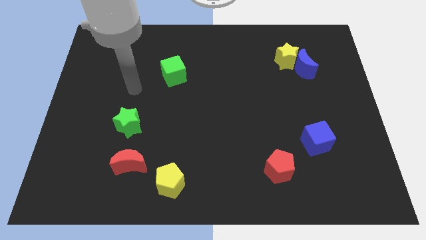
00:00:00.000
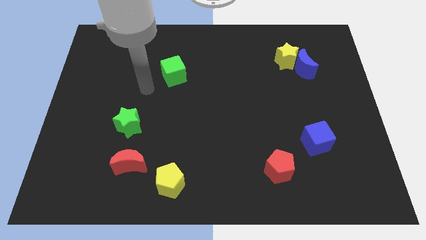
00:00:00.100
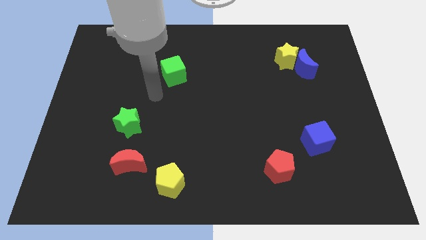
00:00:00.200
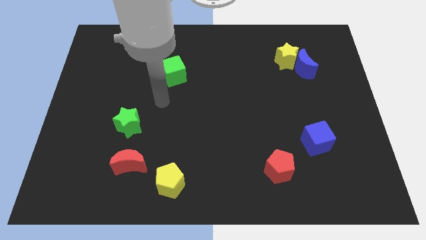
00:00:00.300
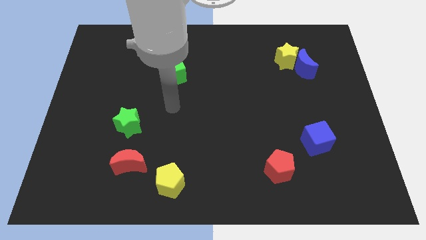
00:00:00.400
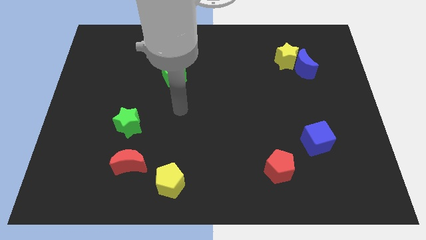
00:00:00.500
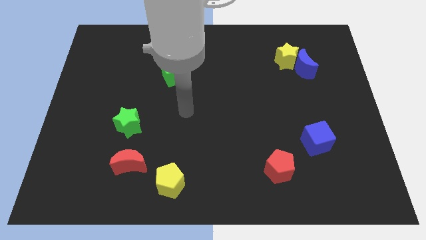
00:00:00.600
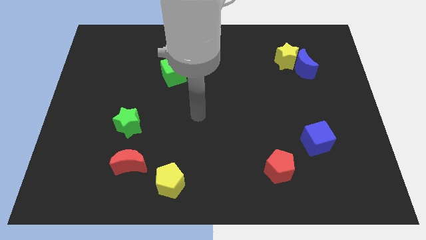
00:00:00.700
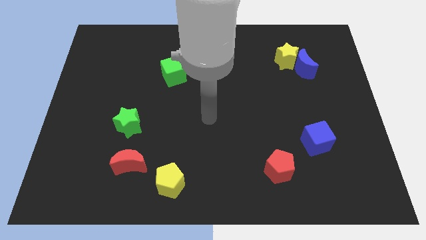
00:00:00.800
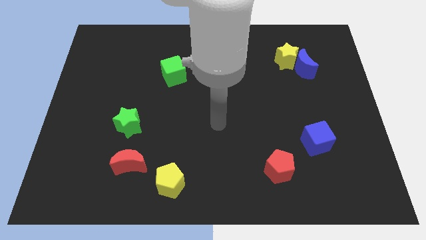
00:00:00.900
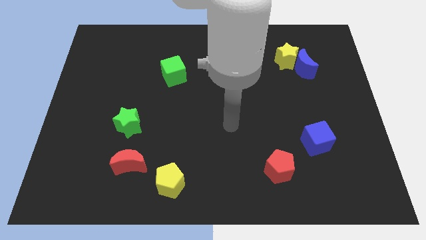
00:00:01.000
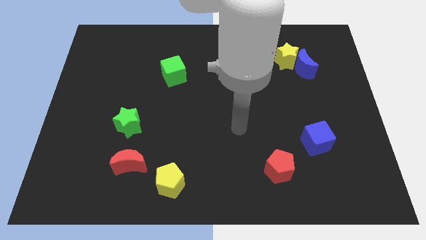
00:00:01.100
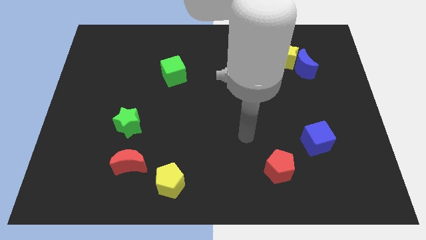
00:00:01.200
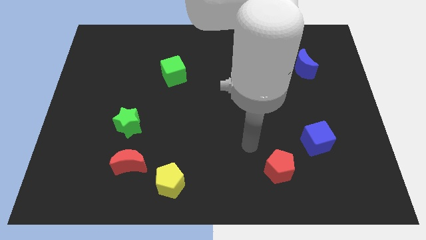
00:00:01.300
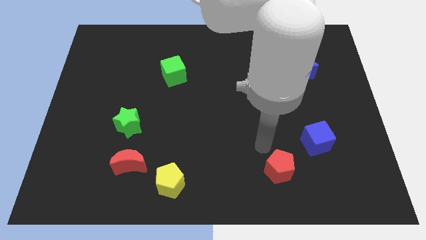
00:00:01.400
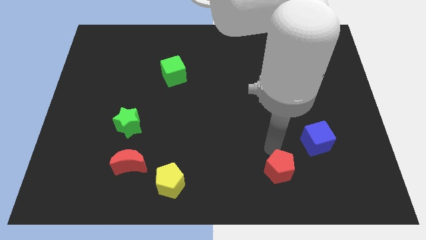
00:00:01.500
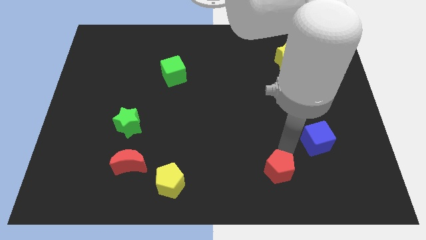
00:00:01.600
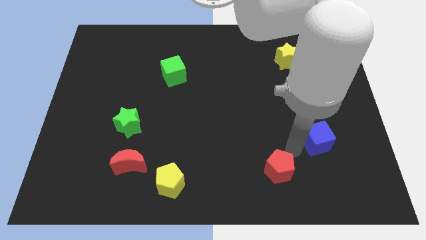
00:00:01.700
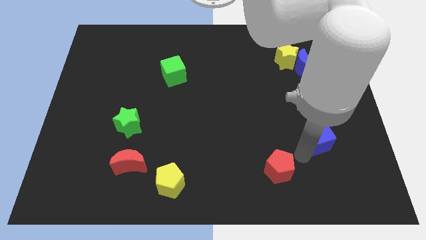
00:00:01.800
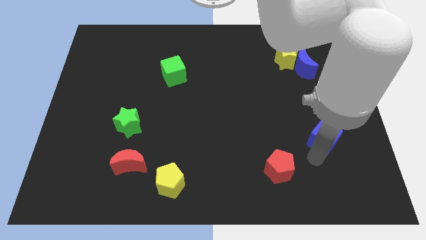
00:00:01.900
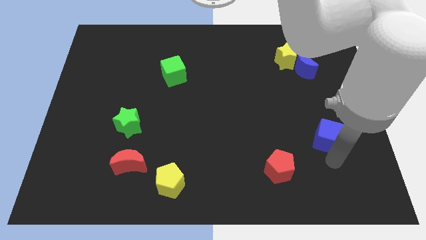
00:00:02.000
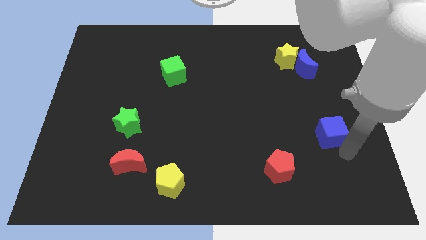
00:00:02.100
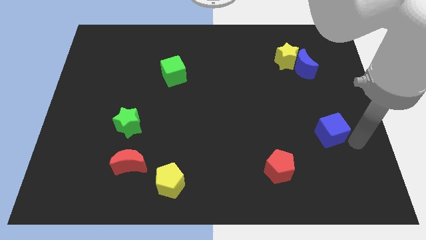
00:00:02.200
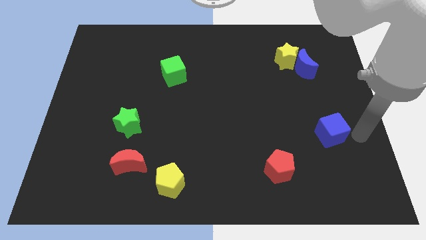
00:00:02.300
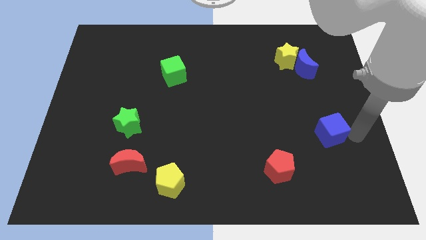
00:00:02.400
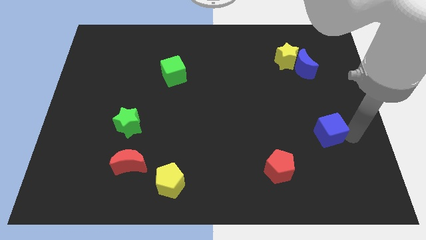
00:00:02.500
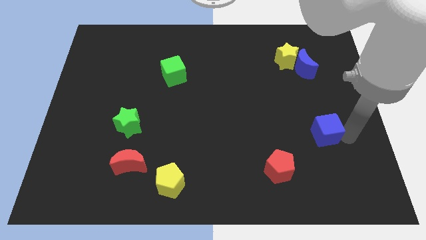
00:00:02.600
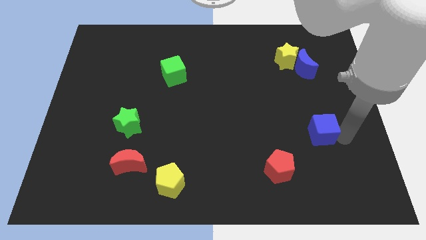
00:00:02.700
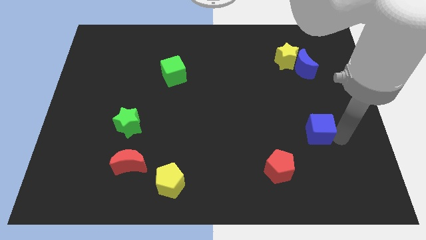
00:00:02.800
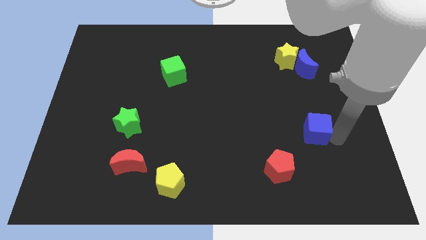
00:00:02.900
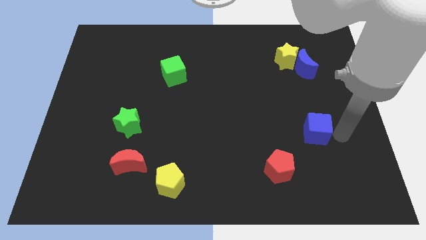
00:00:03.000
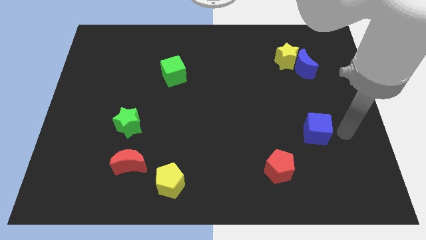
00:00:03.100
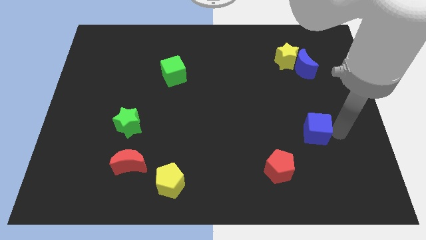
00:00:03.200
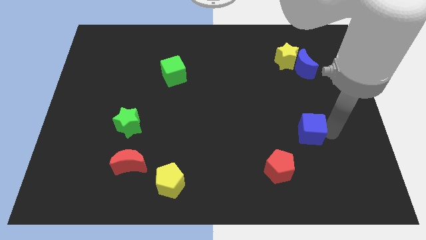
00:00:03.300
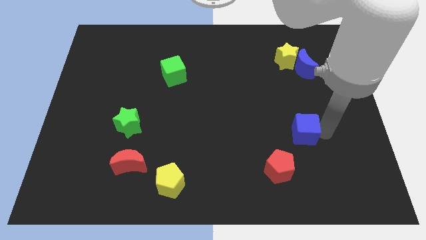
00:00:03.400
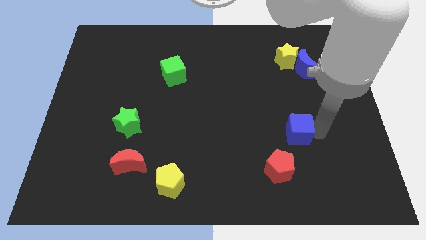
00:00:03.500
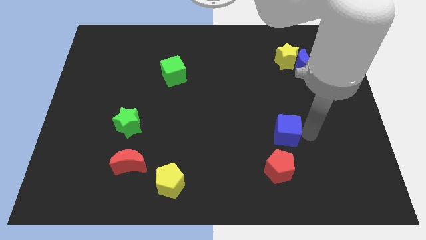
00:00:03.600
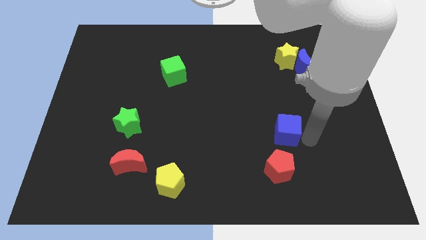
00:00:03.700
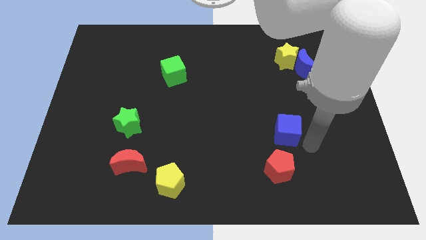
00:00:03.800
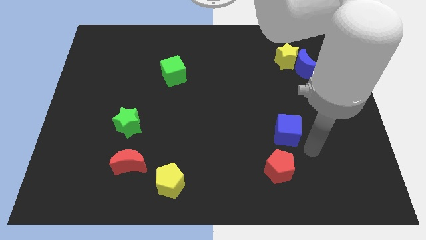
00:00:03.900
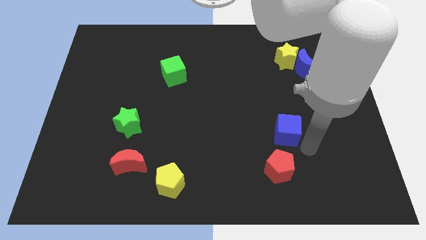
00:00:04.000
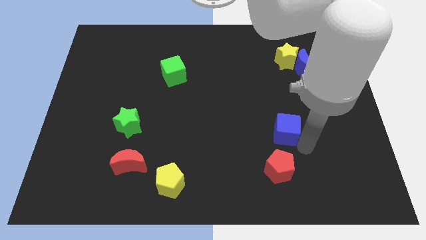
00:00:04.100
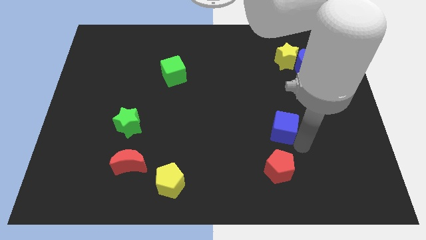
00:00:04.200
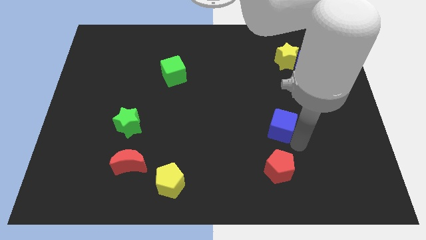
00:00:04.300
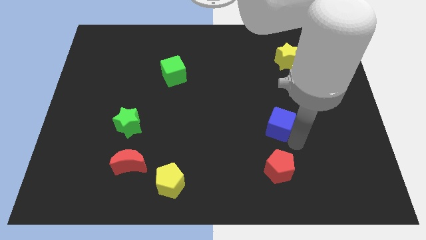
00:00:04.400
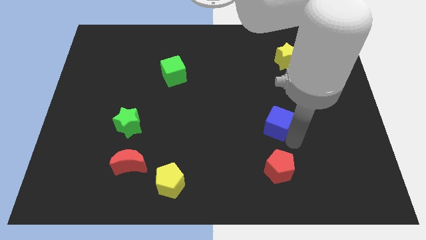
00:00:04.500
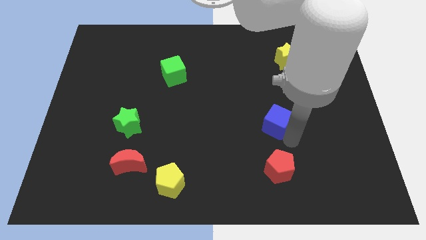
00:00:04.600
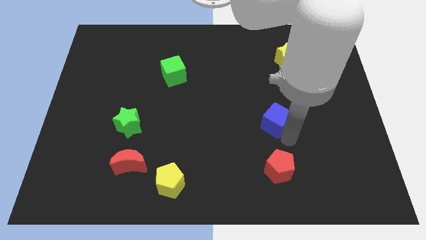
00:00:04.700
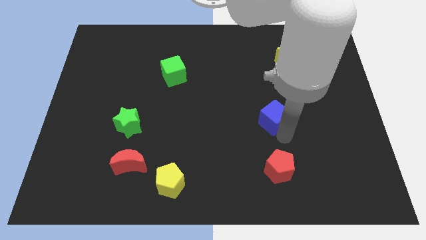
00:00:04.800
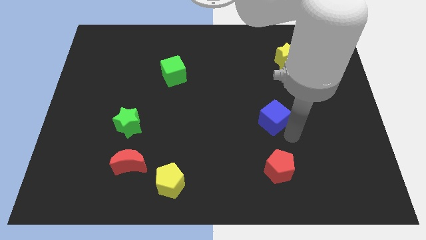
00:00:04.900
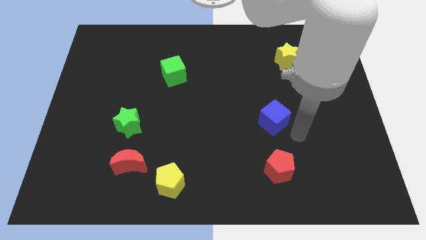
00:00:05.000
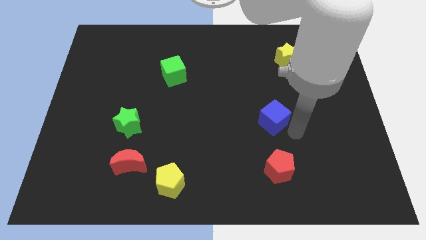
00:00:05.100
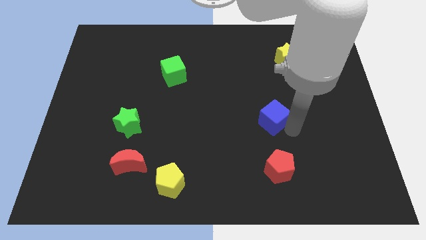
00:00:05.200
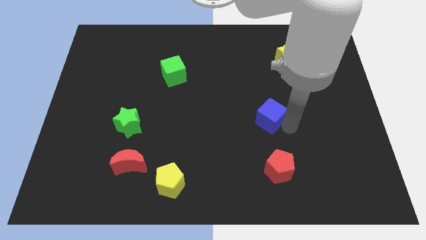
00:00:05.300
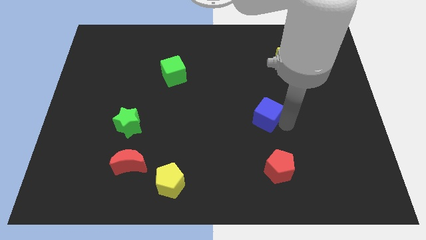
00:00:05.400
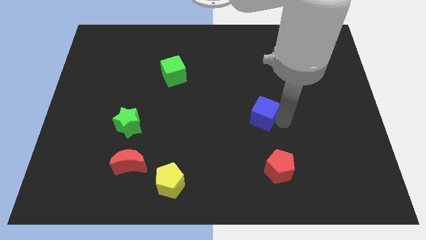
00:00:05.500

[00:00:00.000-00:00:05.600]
slide the blue cube to the middle of the board
